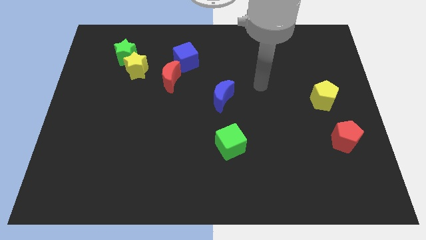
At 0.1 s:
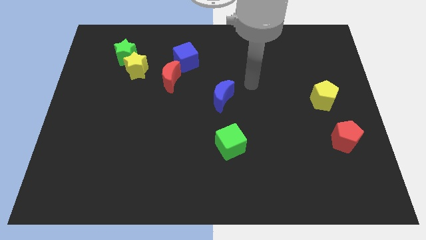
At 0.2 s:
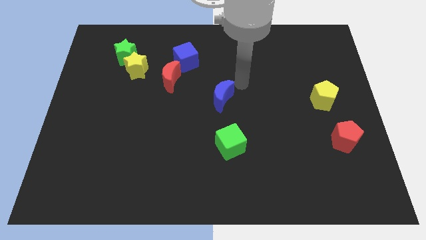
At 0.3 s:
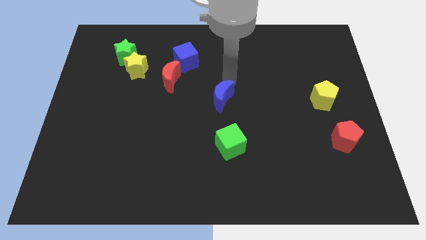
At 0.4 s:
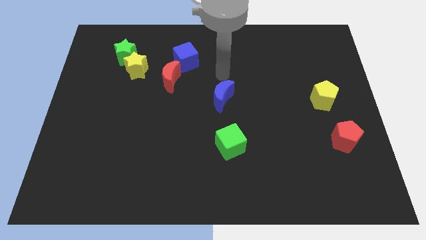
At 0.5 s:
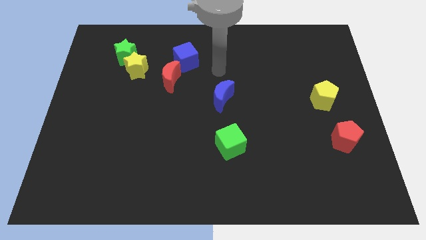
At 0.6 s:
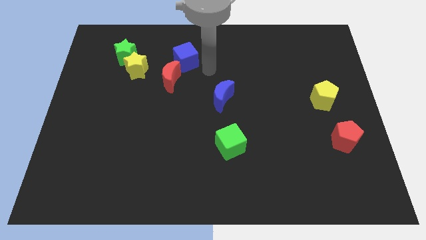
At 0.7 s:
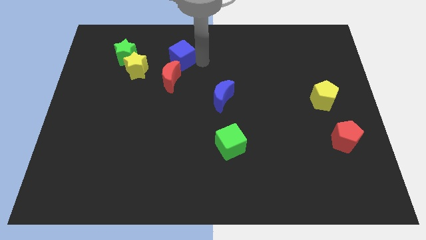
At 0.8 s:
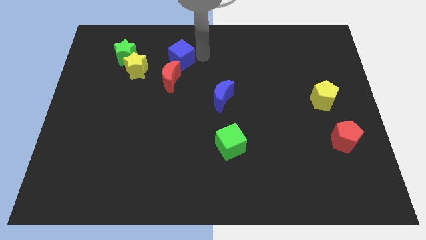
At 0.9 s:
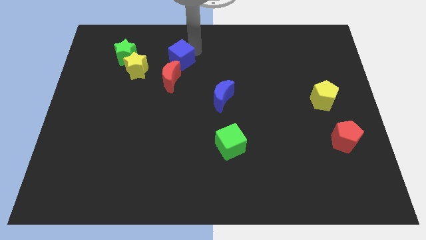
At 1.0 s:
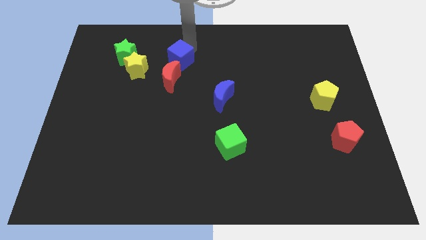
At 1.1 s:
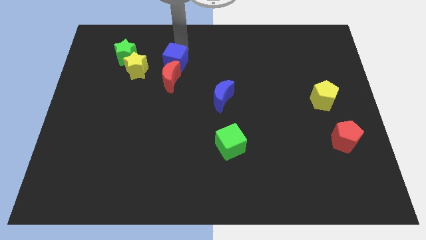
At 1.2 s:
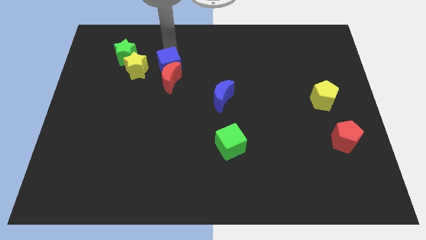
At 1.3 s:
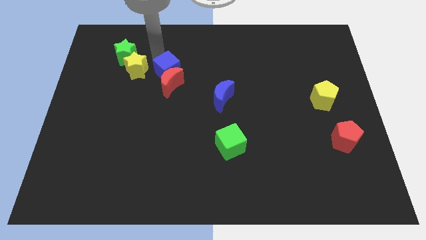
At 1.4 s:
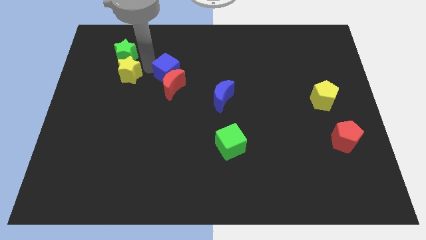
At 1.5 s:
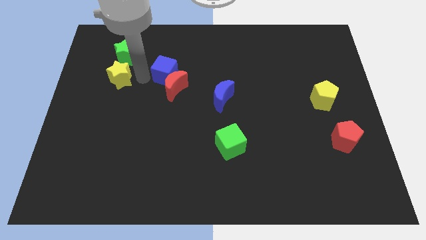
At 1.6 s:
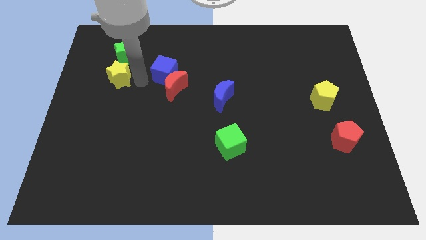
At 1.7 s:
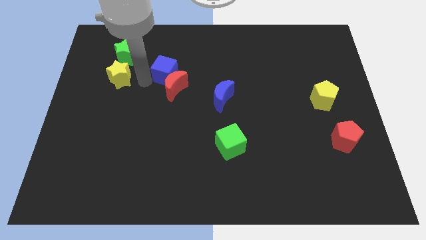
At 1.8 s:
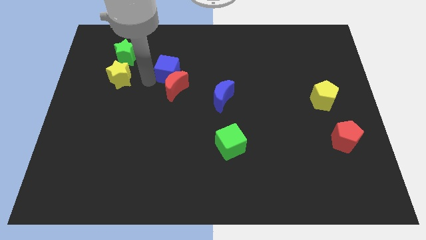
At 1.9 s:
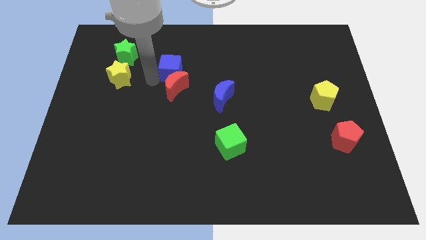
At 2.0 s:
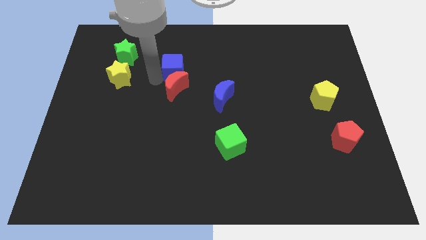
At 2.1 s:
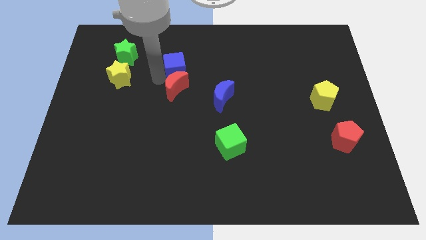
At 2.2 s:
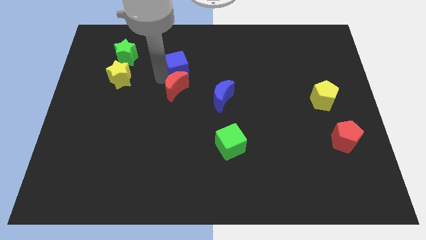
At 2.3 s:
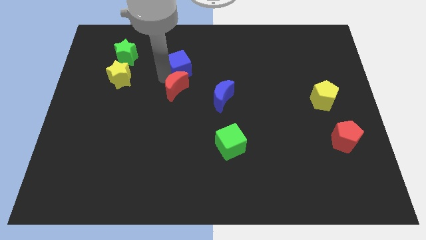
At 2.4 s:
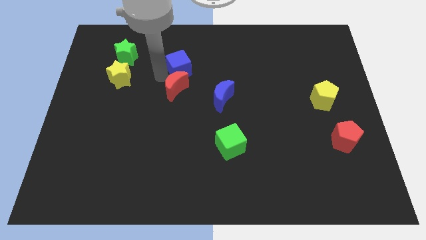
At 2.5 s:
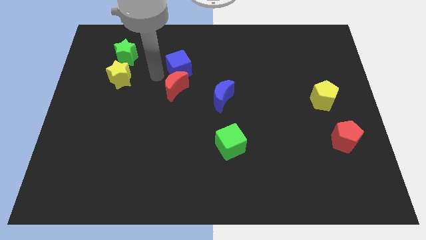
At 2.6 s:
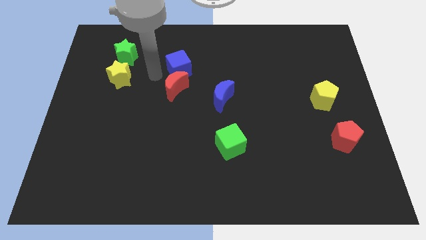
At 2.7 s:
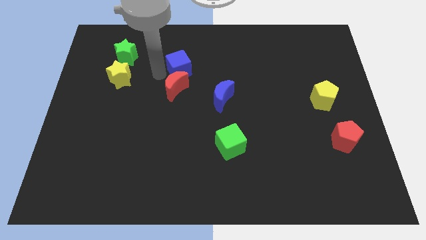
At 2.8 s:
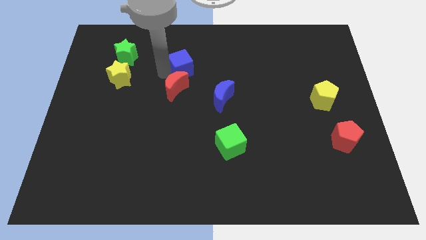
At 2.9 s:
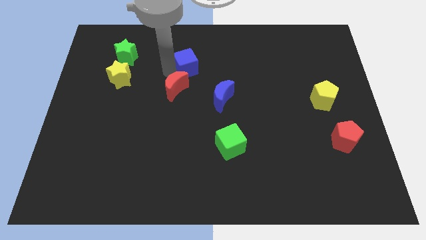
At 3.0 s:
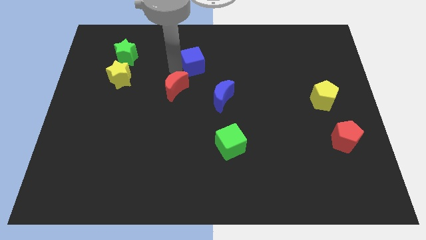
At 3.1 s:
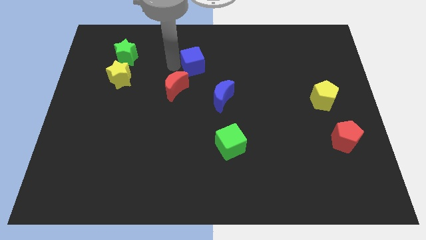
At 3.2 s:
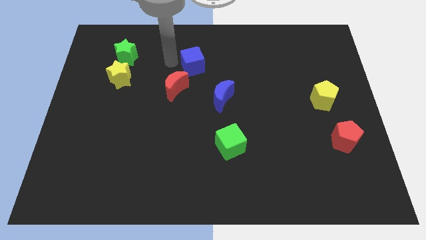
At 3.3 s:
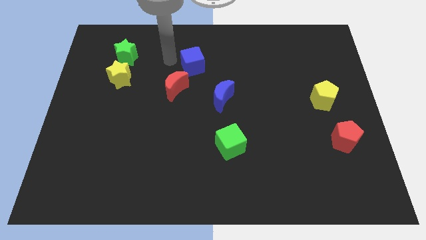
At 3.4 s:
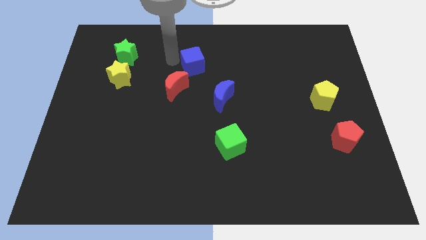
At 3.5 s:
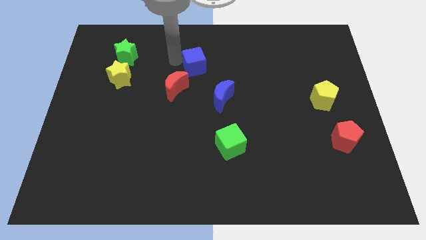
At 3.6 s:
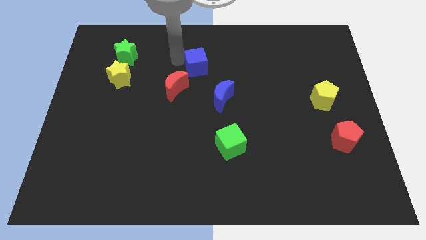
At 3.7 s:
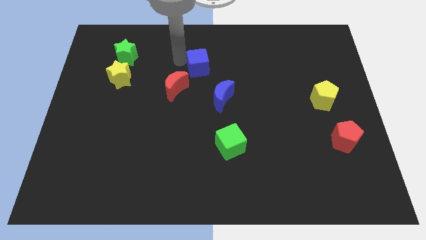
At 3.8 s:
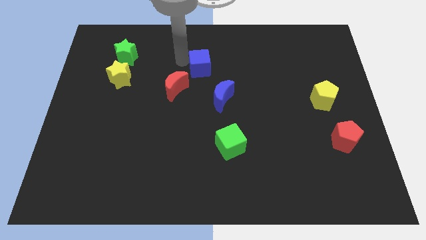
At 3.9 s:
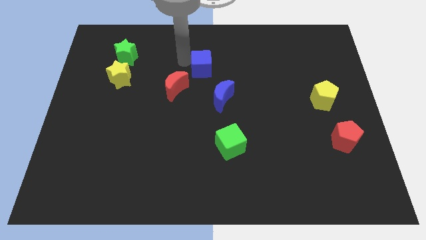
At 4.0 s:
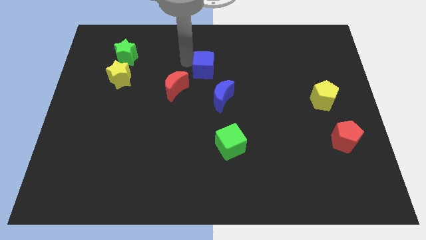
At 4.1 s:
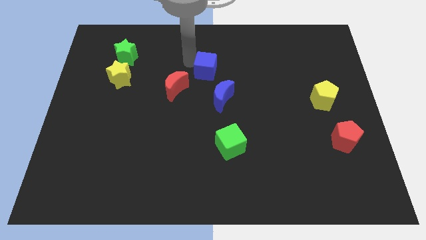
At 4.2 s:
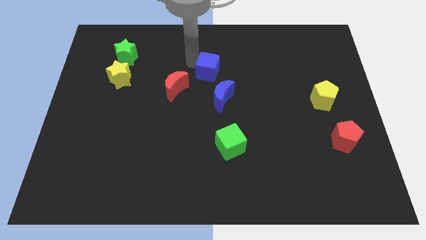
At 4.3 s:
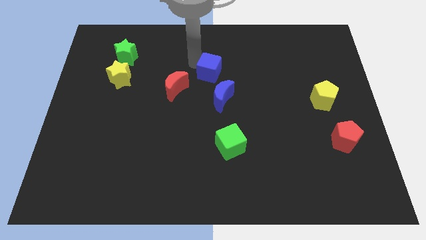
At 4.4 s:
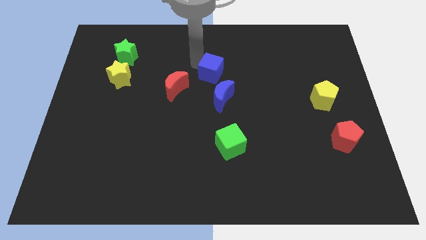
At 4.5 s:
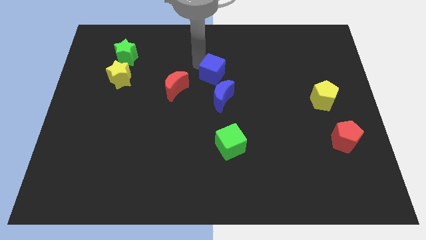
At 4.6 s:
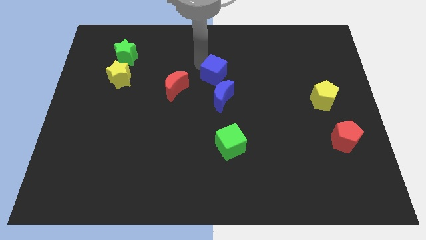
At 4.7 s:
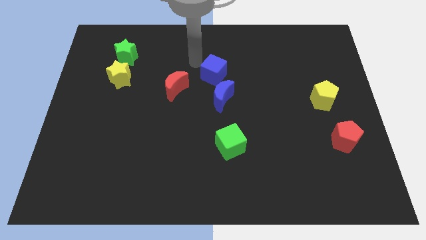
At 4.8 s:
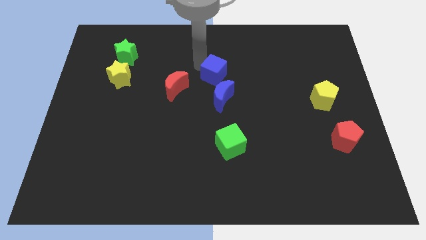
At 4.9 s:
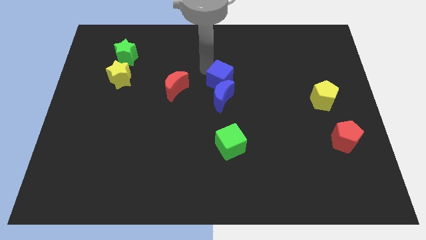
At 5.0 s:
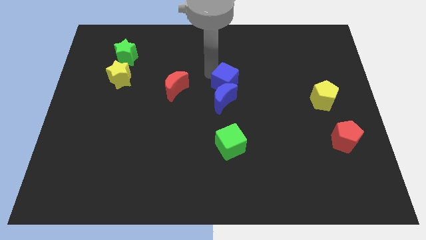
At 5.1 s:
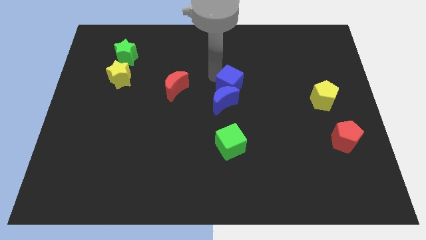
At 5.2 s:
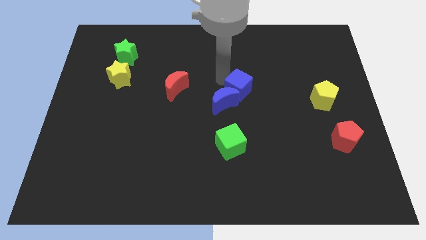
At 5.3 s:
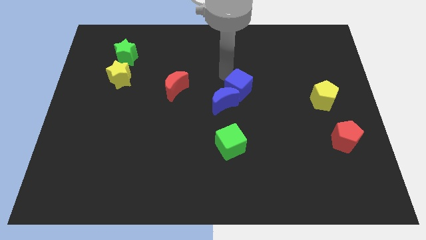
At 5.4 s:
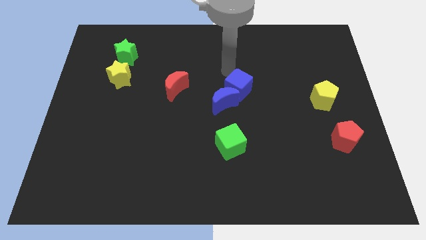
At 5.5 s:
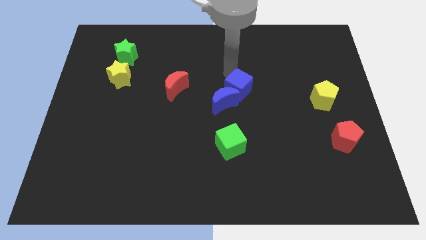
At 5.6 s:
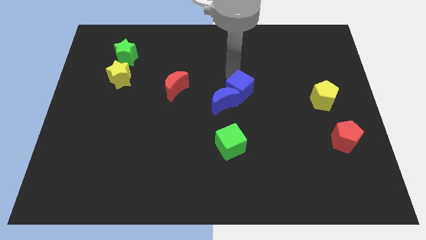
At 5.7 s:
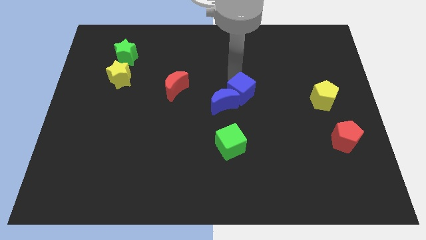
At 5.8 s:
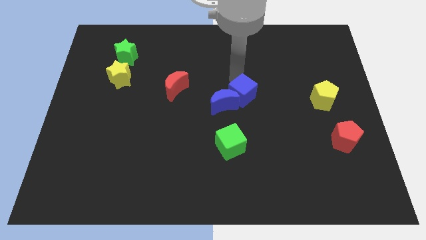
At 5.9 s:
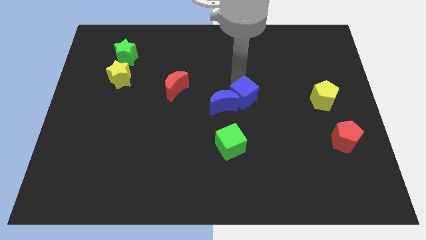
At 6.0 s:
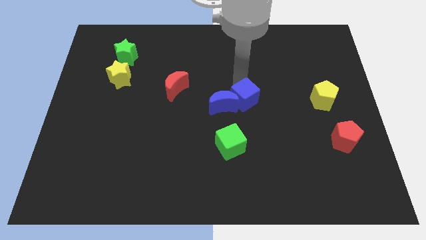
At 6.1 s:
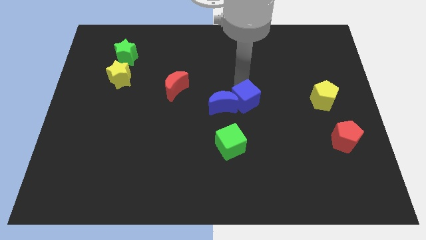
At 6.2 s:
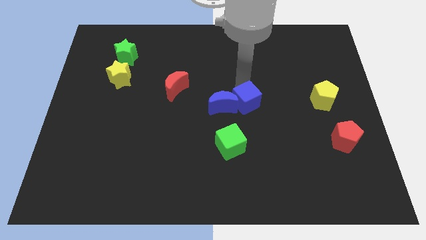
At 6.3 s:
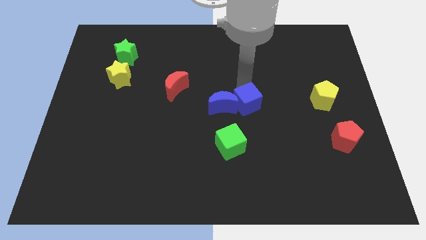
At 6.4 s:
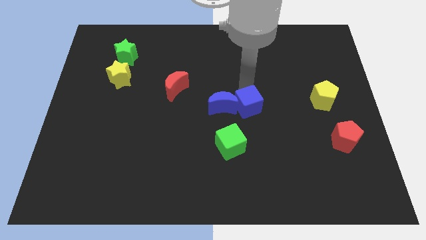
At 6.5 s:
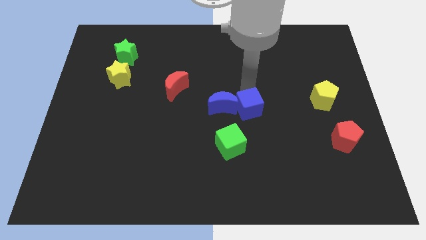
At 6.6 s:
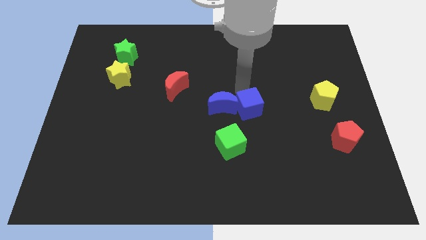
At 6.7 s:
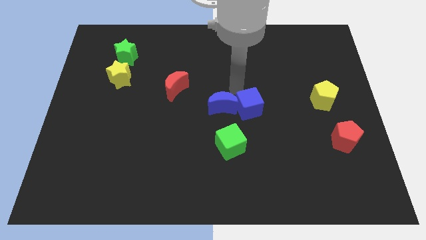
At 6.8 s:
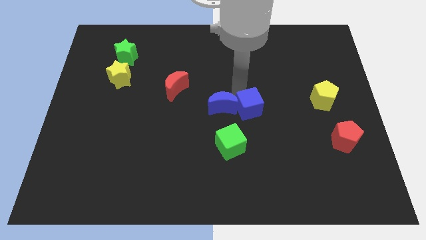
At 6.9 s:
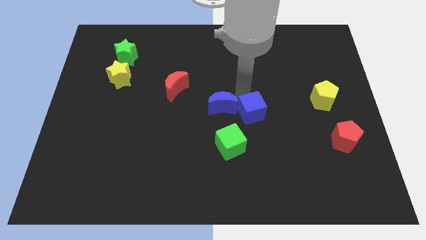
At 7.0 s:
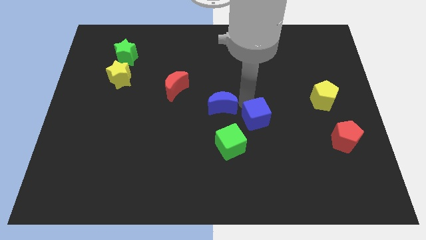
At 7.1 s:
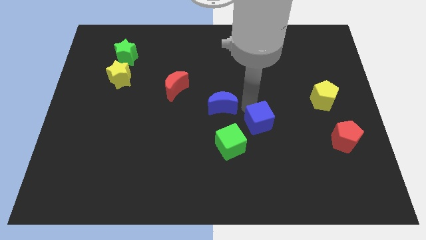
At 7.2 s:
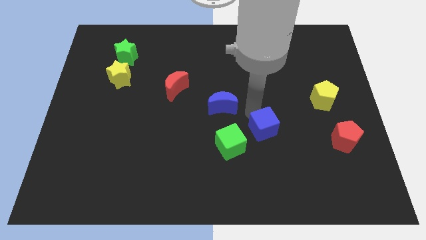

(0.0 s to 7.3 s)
slide the blue cube just right of the green cube
